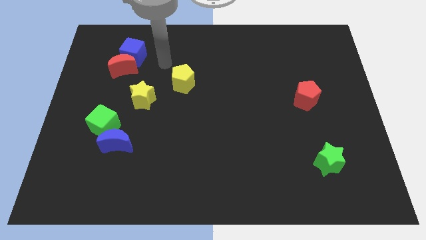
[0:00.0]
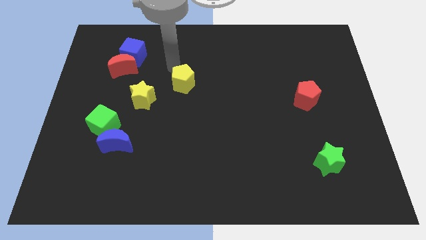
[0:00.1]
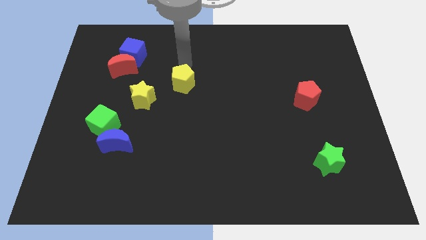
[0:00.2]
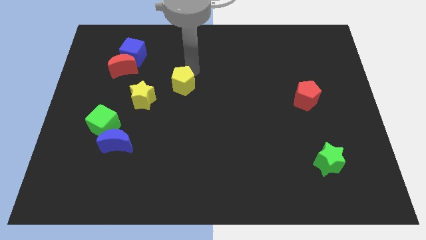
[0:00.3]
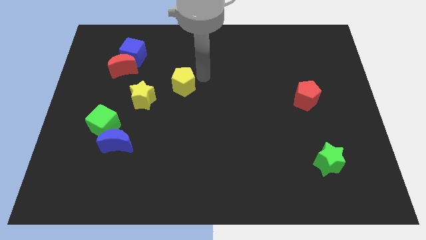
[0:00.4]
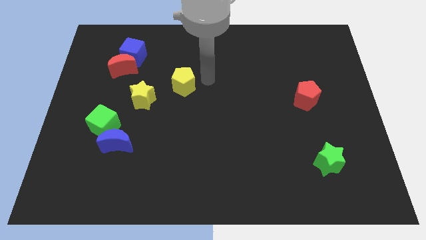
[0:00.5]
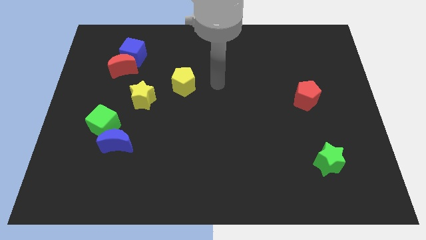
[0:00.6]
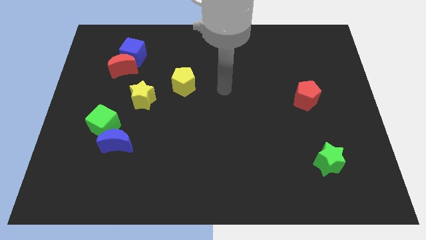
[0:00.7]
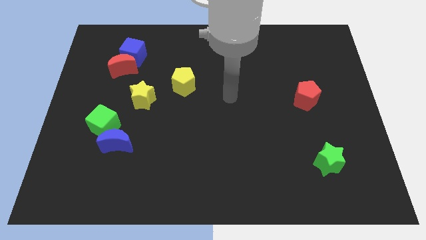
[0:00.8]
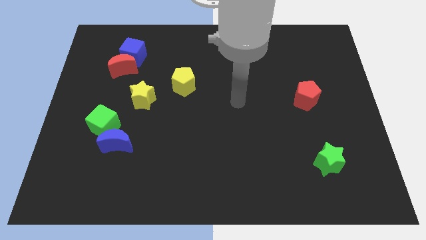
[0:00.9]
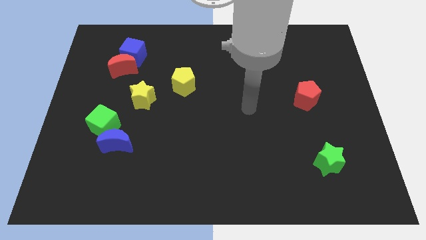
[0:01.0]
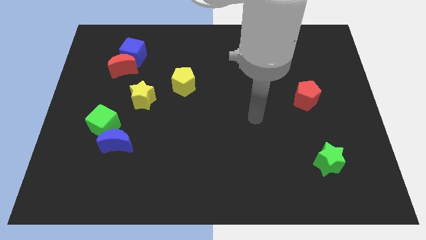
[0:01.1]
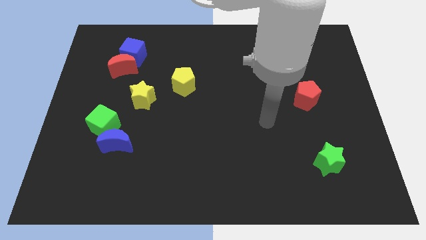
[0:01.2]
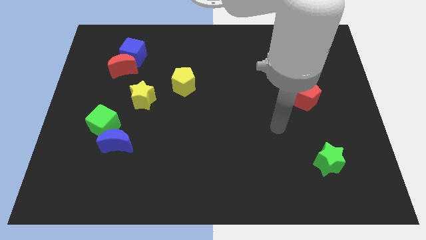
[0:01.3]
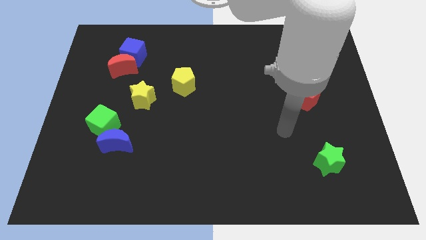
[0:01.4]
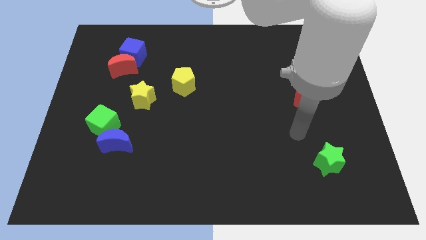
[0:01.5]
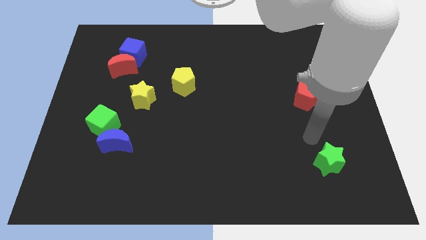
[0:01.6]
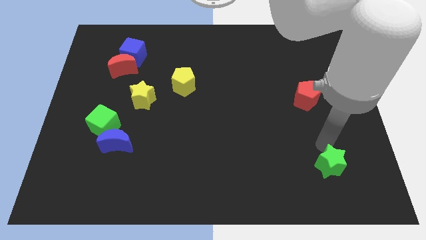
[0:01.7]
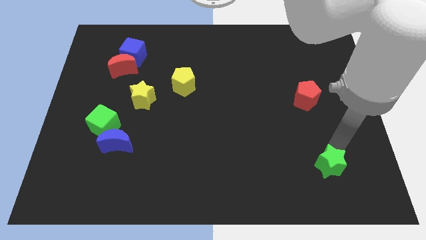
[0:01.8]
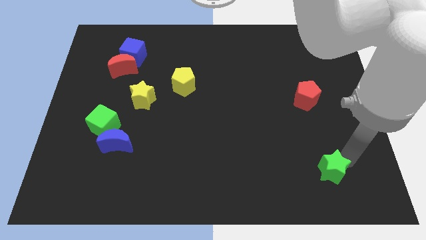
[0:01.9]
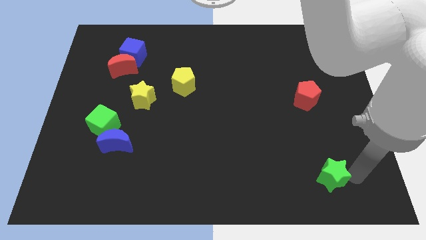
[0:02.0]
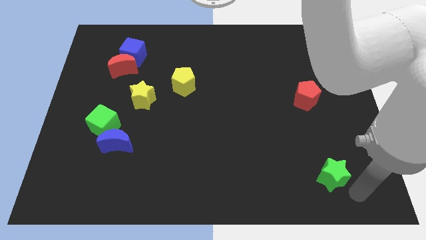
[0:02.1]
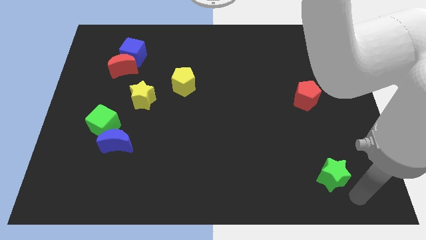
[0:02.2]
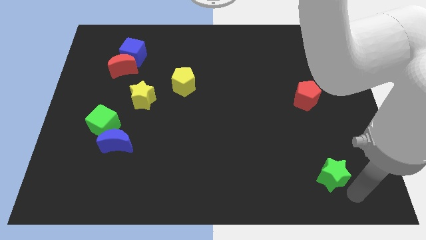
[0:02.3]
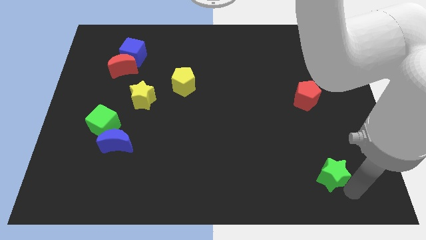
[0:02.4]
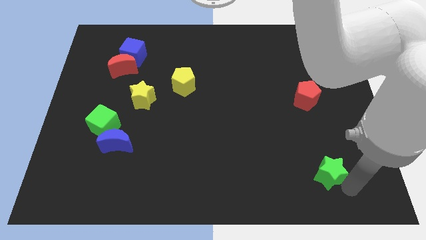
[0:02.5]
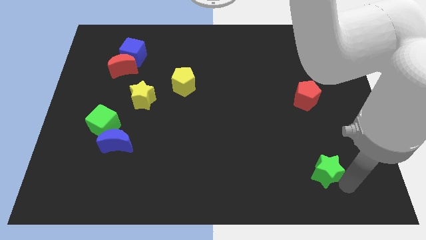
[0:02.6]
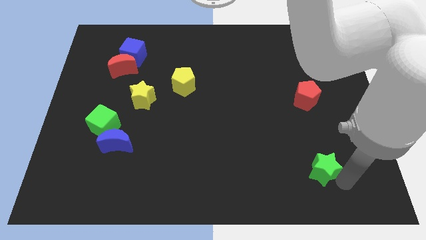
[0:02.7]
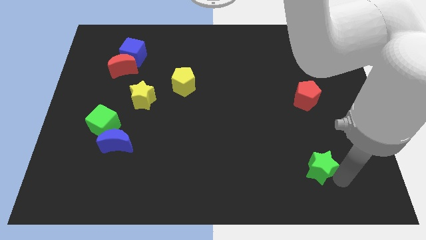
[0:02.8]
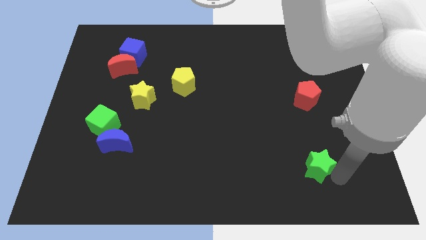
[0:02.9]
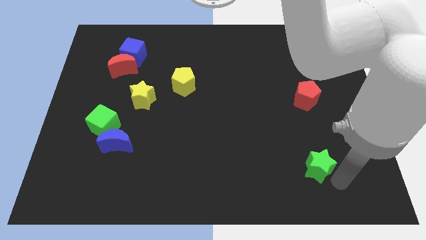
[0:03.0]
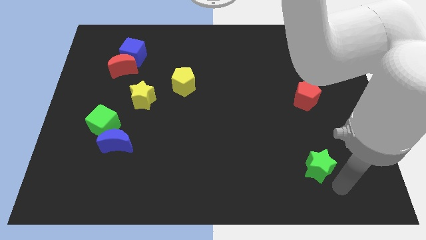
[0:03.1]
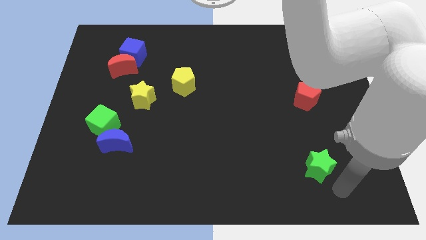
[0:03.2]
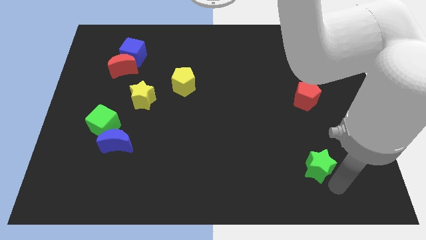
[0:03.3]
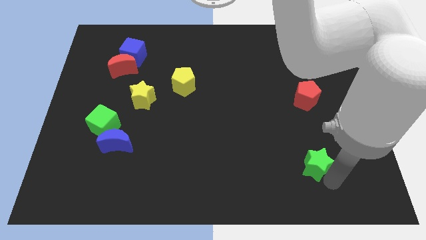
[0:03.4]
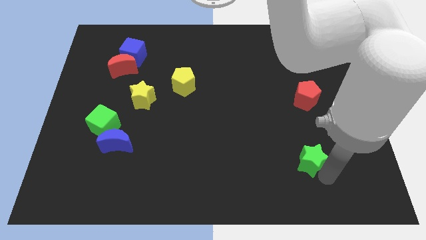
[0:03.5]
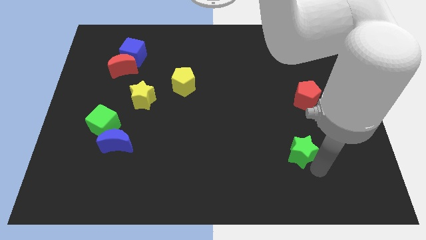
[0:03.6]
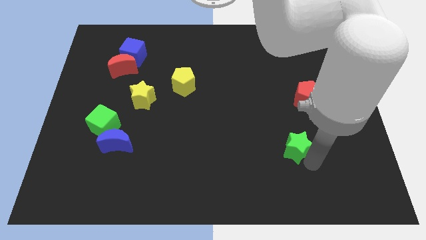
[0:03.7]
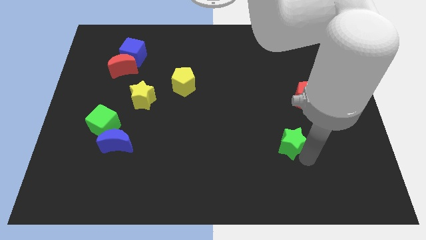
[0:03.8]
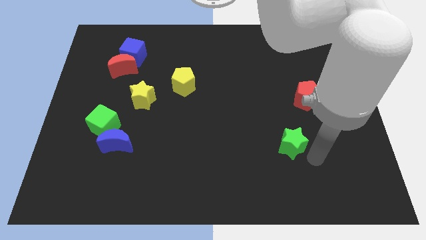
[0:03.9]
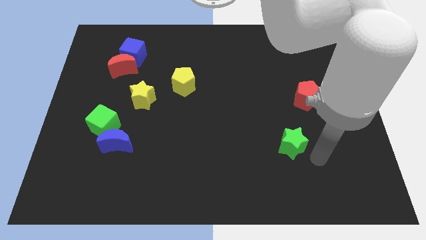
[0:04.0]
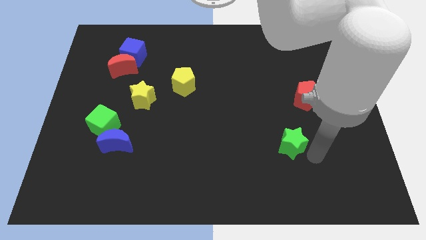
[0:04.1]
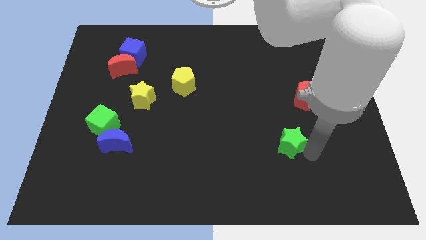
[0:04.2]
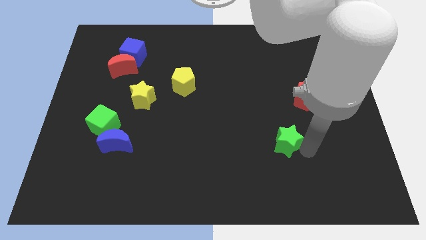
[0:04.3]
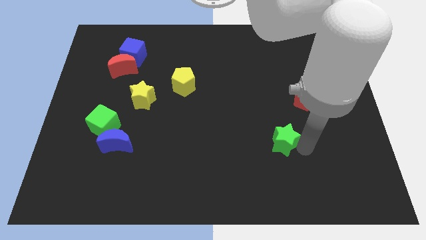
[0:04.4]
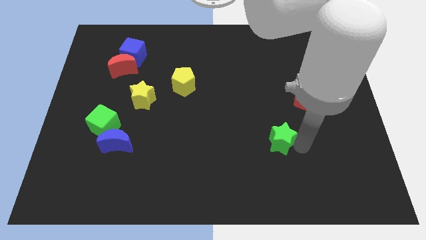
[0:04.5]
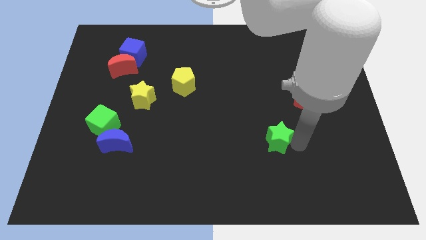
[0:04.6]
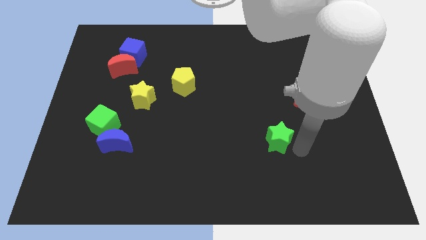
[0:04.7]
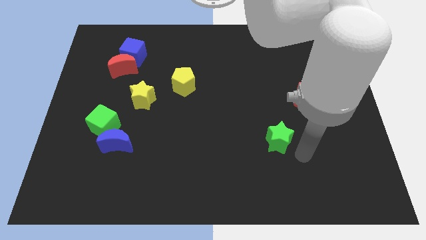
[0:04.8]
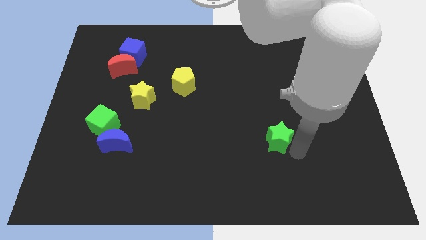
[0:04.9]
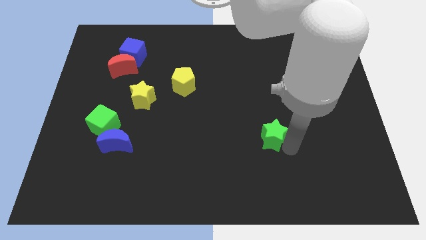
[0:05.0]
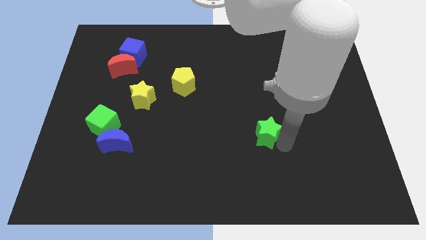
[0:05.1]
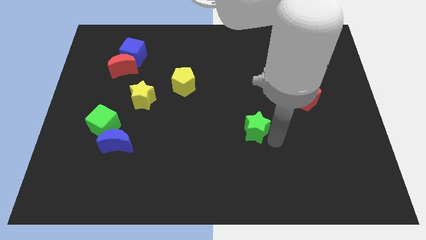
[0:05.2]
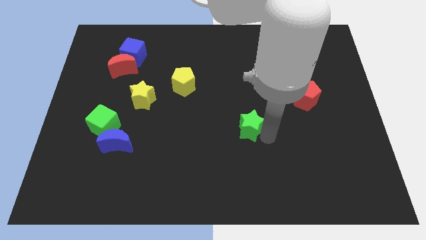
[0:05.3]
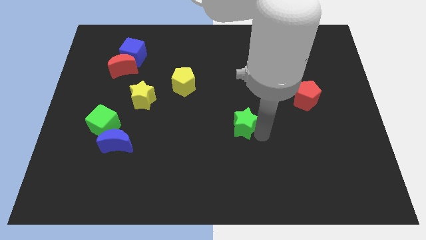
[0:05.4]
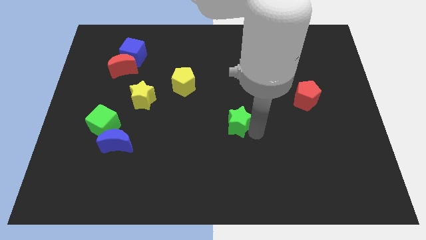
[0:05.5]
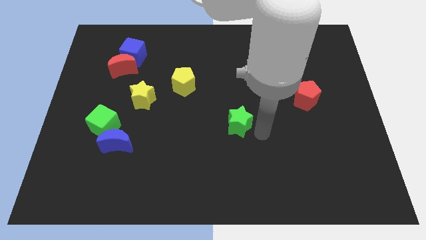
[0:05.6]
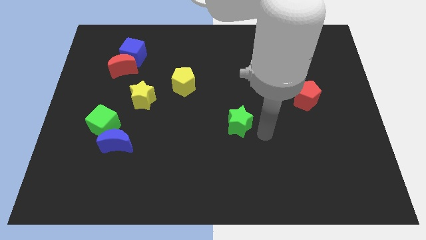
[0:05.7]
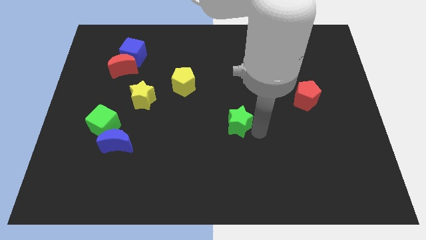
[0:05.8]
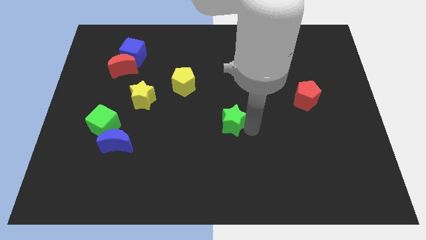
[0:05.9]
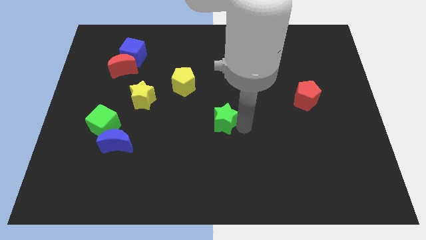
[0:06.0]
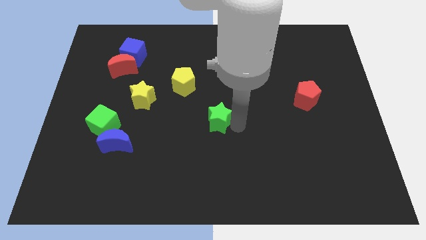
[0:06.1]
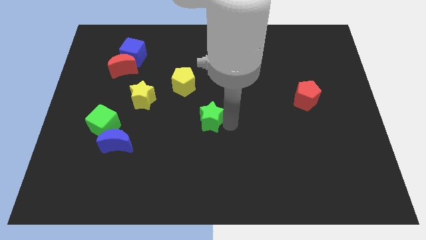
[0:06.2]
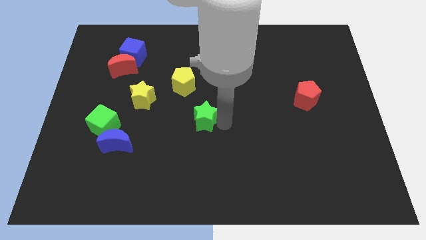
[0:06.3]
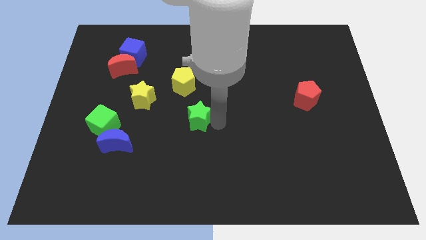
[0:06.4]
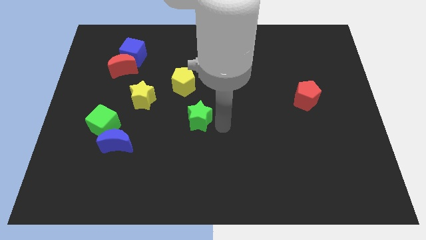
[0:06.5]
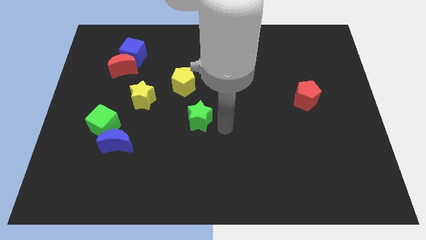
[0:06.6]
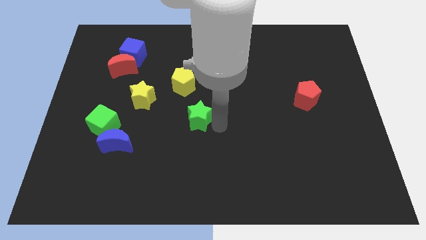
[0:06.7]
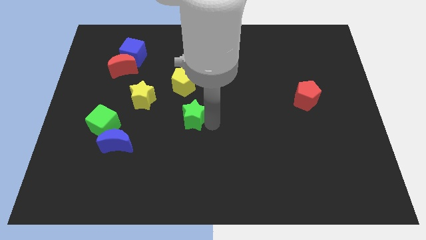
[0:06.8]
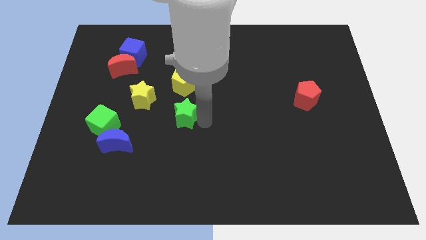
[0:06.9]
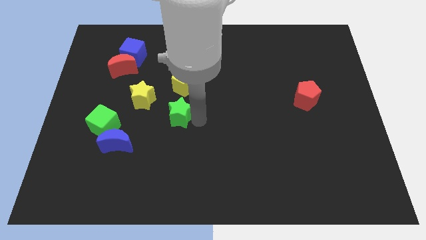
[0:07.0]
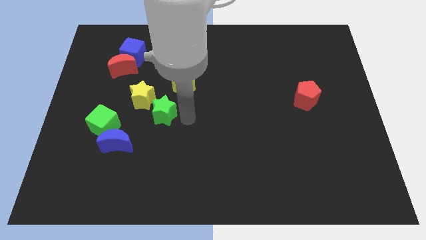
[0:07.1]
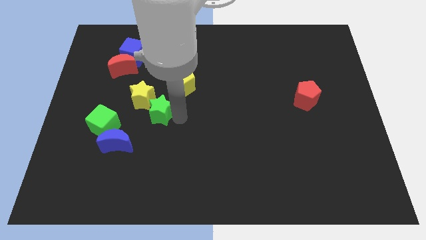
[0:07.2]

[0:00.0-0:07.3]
put the green star towards the yellow star
